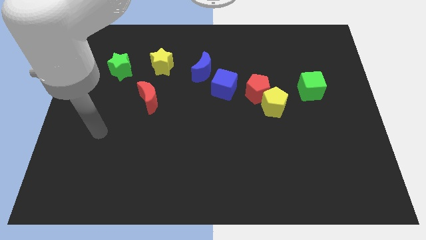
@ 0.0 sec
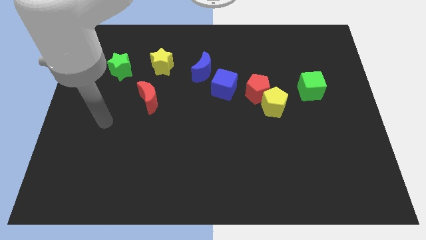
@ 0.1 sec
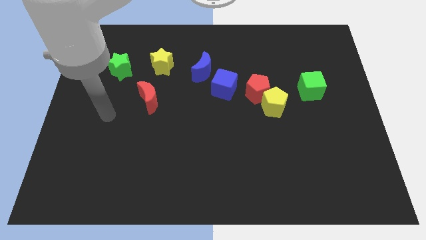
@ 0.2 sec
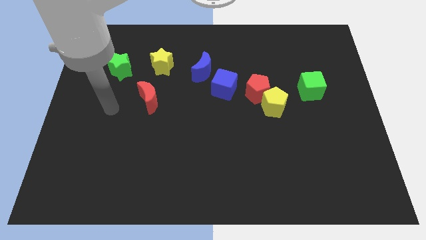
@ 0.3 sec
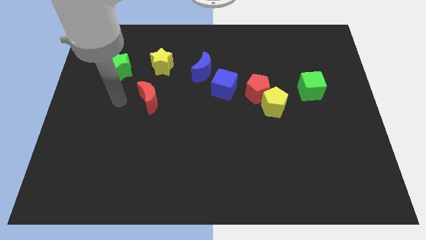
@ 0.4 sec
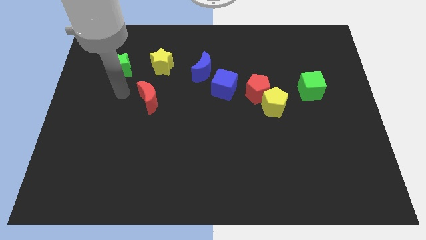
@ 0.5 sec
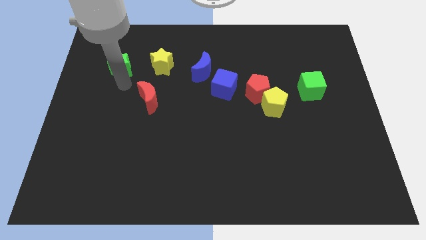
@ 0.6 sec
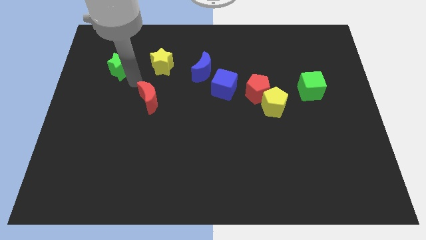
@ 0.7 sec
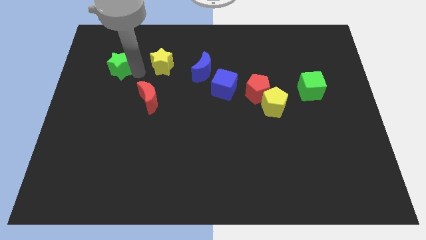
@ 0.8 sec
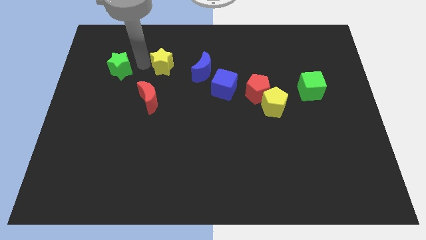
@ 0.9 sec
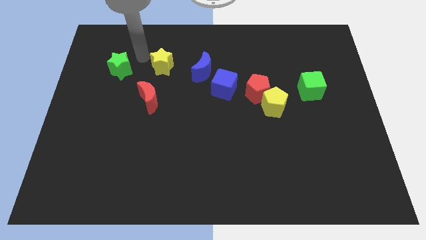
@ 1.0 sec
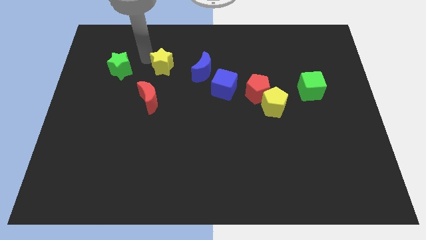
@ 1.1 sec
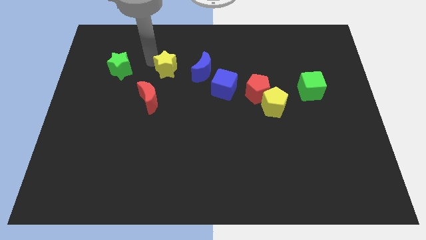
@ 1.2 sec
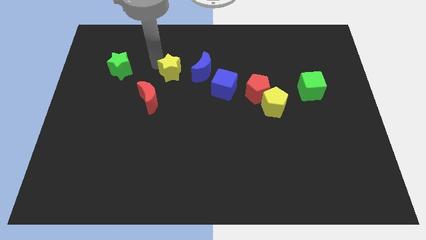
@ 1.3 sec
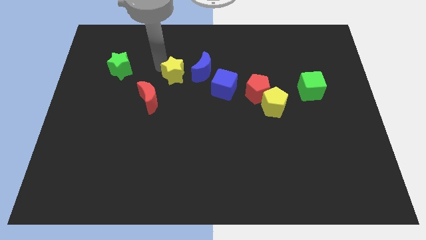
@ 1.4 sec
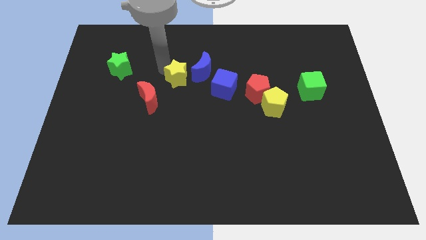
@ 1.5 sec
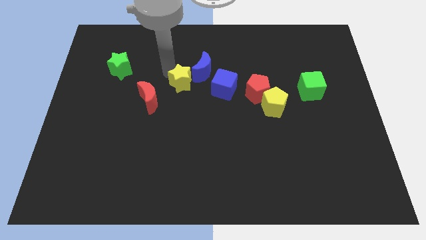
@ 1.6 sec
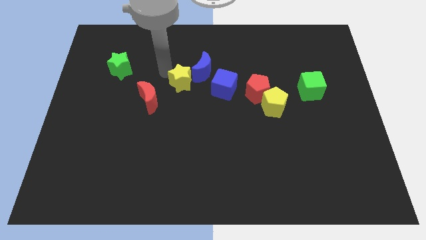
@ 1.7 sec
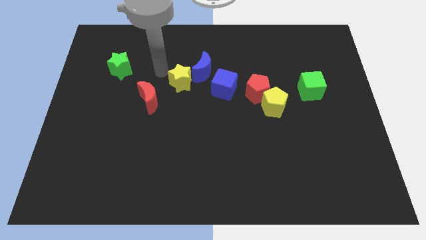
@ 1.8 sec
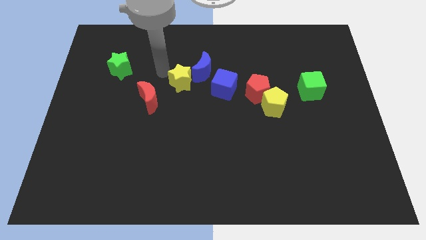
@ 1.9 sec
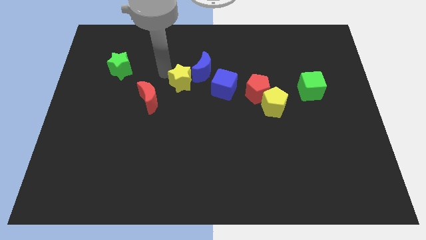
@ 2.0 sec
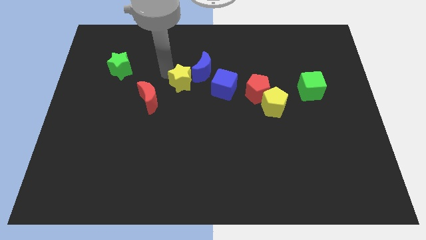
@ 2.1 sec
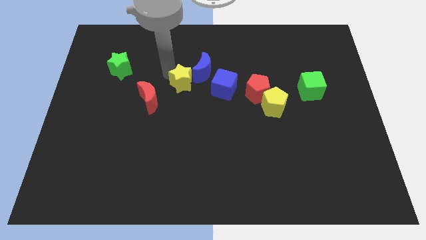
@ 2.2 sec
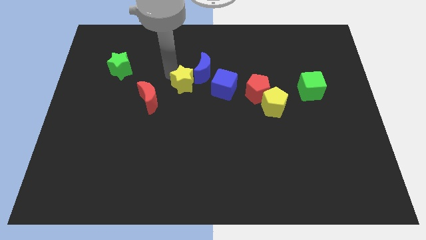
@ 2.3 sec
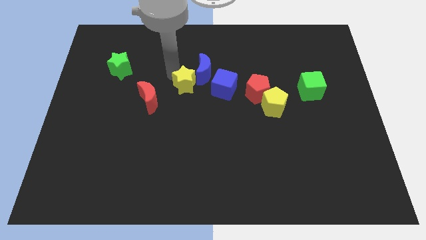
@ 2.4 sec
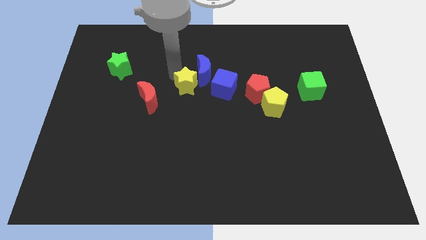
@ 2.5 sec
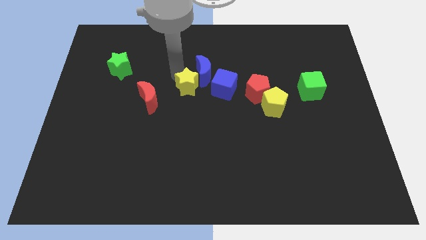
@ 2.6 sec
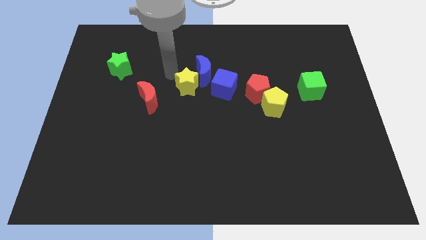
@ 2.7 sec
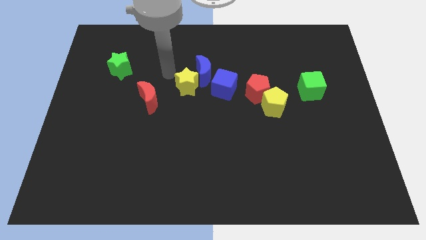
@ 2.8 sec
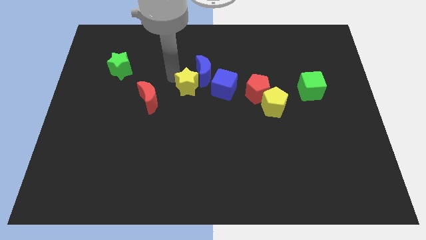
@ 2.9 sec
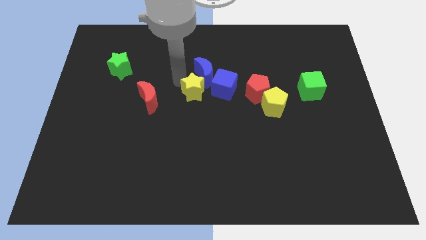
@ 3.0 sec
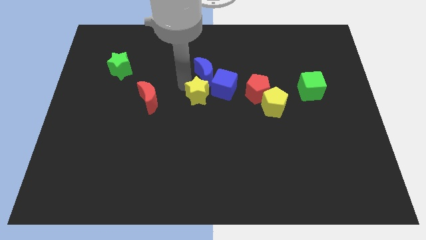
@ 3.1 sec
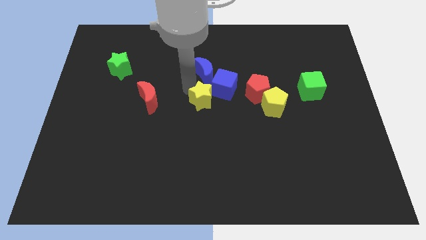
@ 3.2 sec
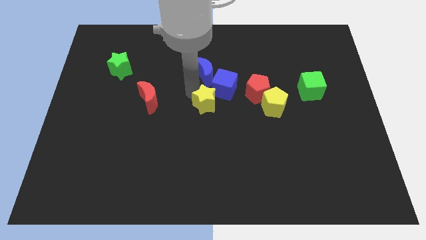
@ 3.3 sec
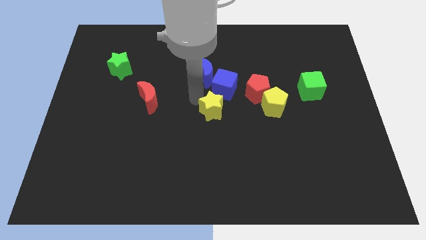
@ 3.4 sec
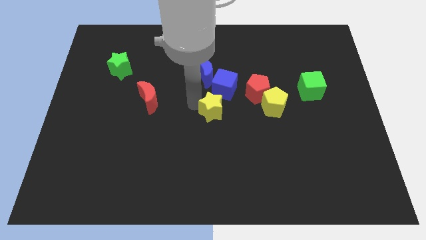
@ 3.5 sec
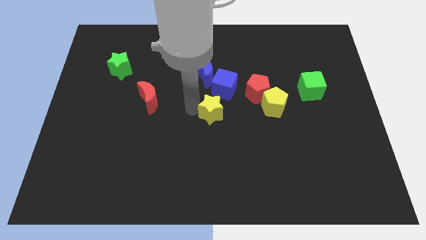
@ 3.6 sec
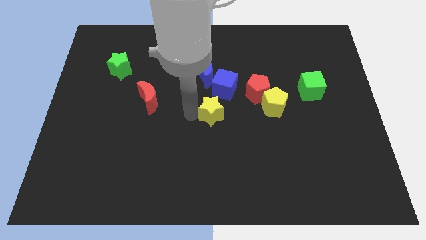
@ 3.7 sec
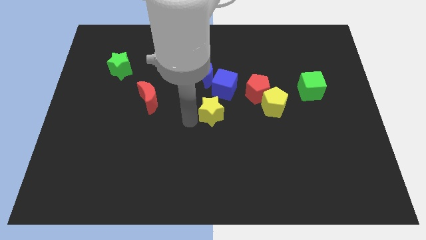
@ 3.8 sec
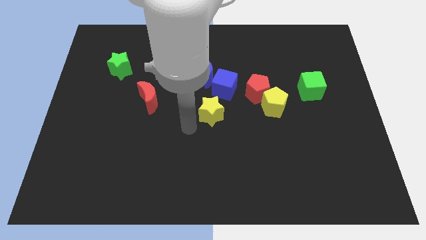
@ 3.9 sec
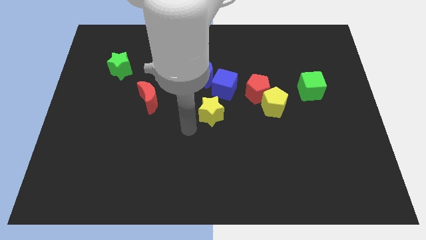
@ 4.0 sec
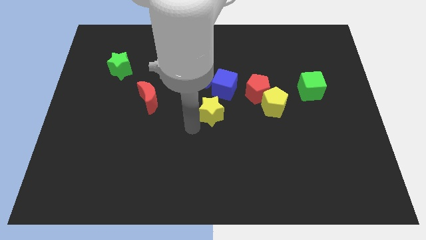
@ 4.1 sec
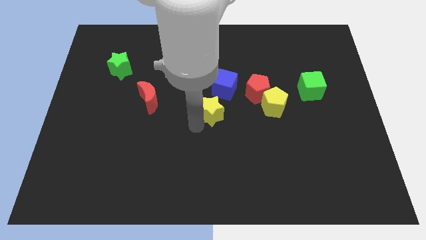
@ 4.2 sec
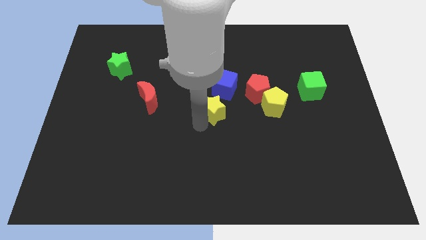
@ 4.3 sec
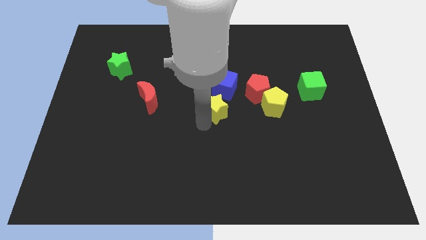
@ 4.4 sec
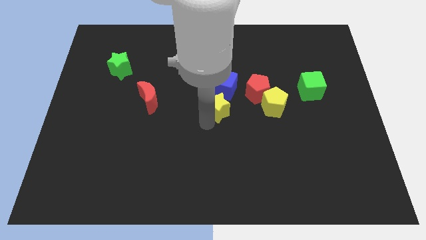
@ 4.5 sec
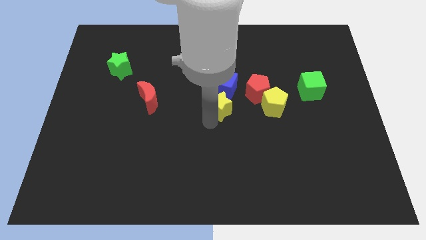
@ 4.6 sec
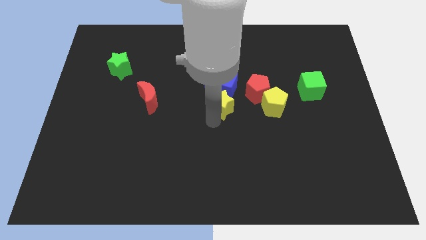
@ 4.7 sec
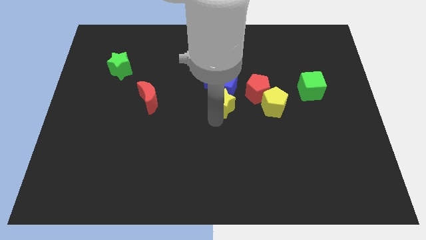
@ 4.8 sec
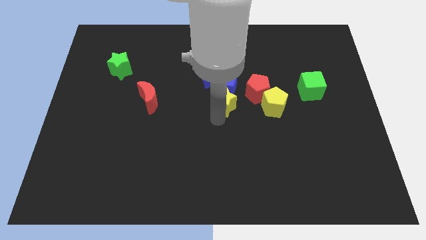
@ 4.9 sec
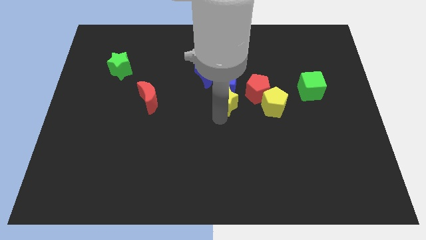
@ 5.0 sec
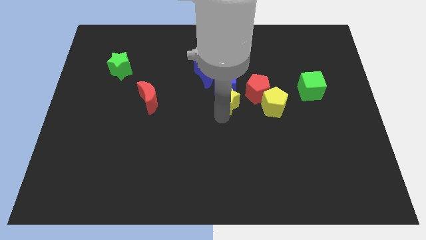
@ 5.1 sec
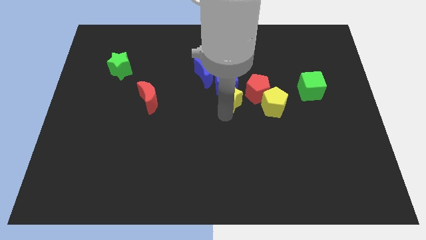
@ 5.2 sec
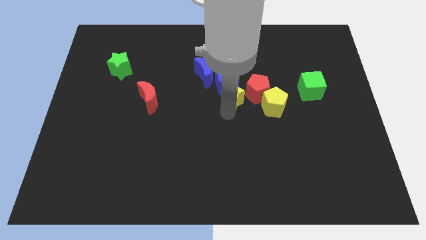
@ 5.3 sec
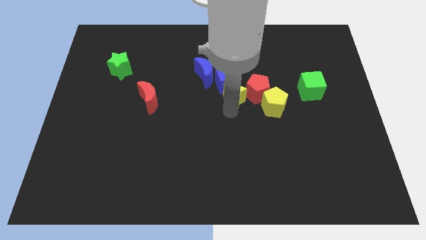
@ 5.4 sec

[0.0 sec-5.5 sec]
slide the yellow star close to the red pentagon
